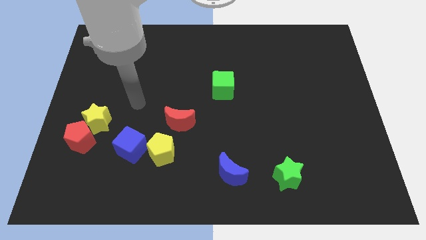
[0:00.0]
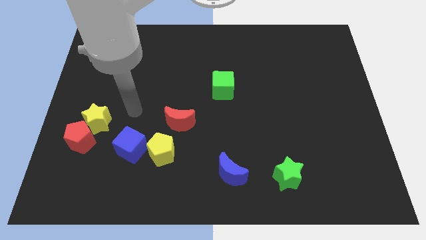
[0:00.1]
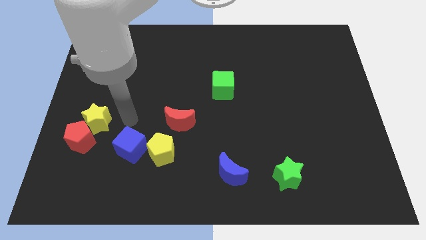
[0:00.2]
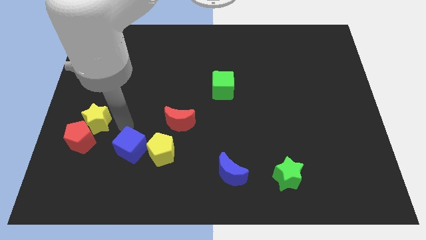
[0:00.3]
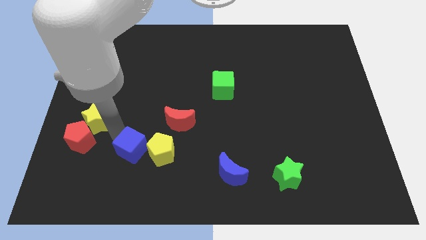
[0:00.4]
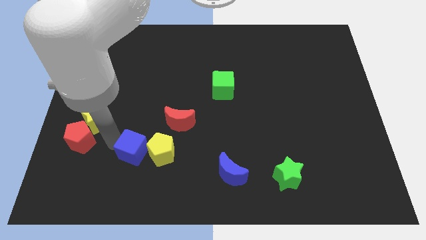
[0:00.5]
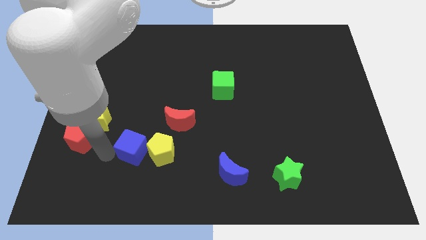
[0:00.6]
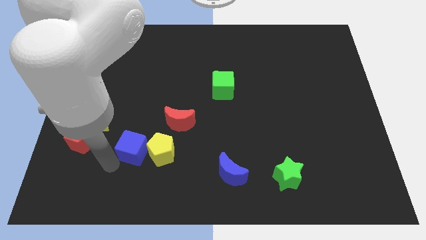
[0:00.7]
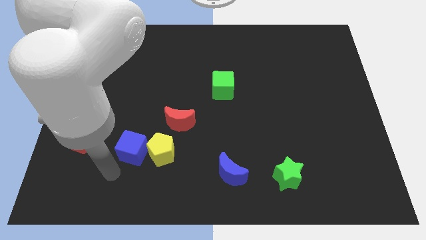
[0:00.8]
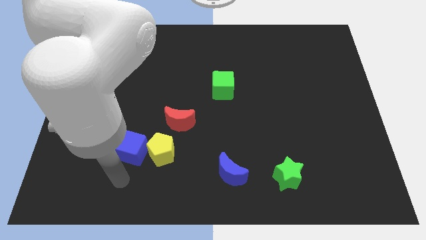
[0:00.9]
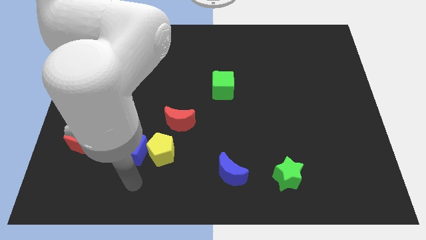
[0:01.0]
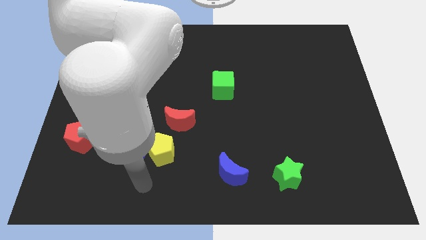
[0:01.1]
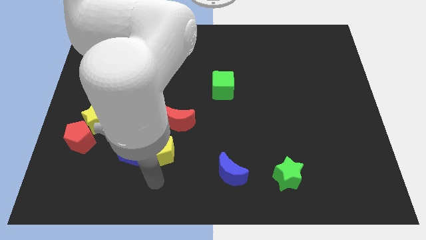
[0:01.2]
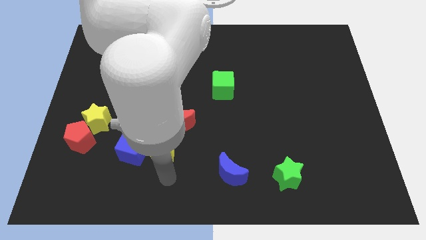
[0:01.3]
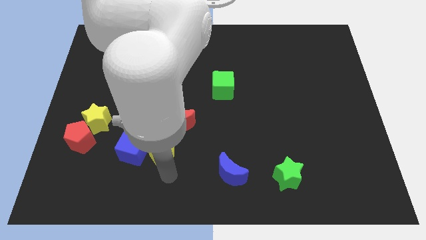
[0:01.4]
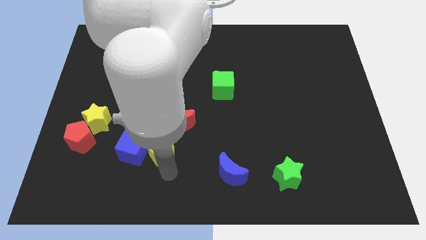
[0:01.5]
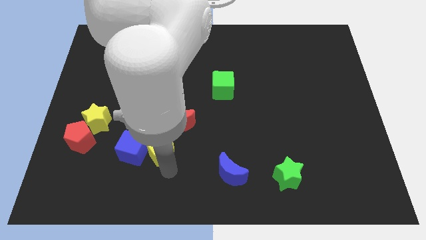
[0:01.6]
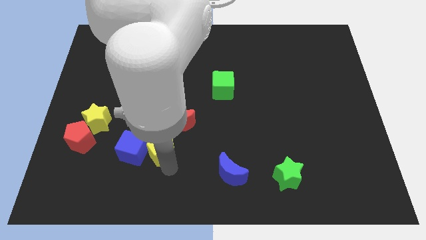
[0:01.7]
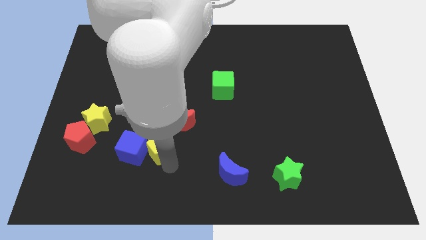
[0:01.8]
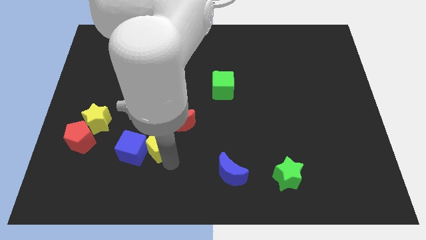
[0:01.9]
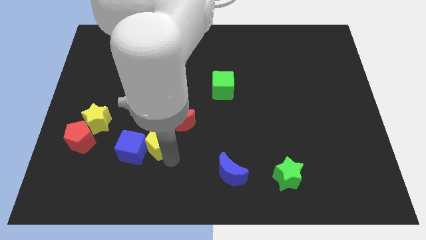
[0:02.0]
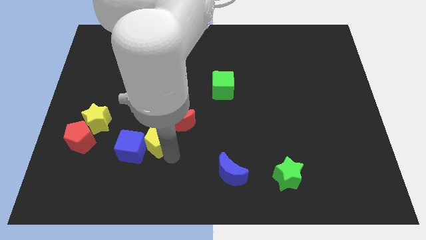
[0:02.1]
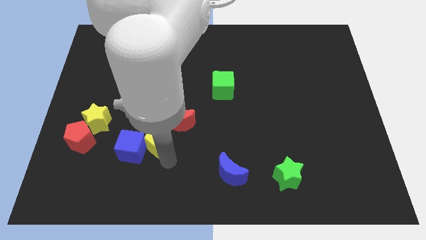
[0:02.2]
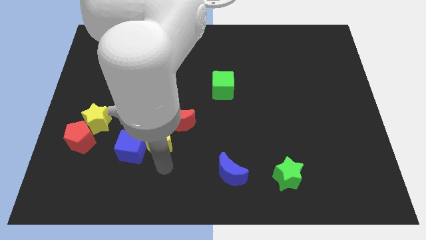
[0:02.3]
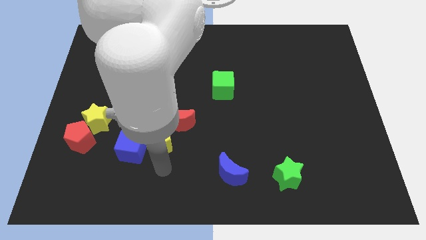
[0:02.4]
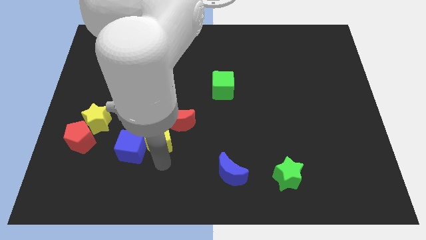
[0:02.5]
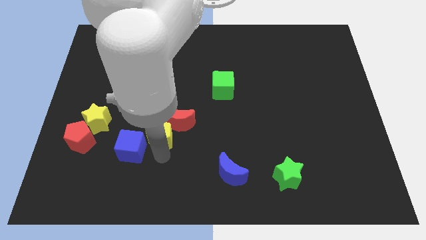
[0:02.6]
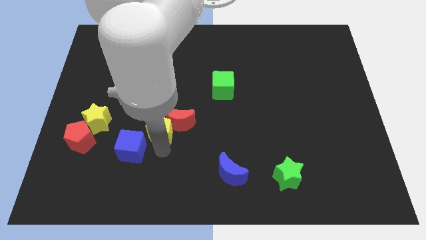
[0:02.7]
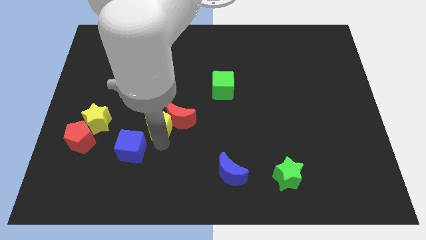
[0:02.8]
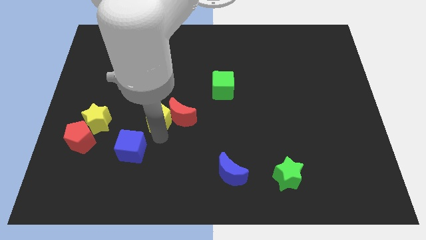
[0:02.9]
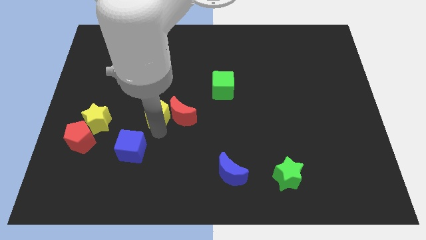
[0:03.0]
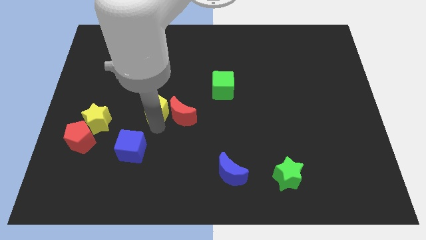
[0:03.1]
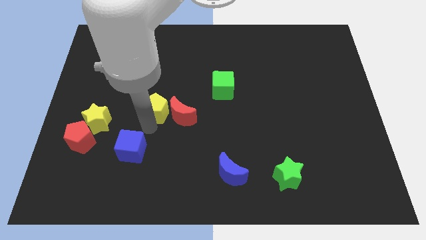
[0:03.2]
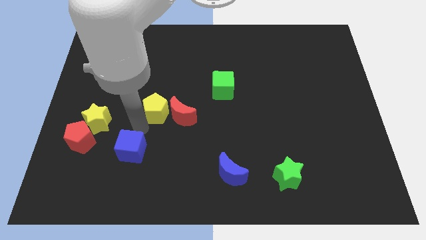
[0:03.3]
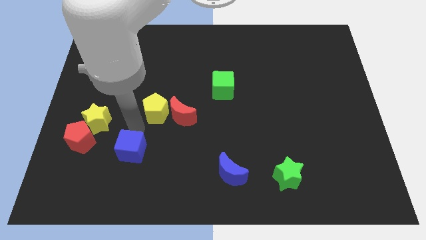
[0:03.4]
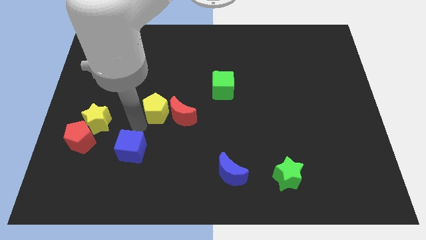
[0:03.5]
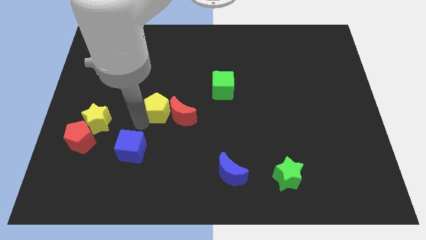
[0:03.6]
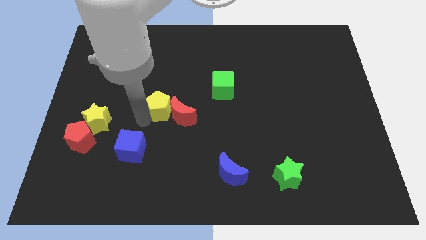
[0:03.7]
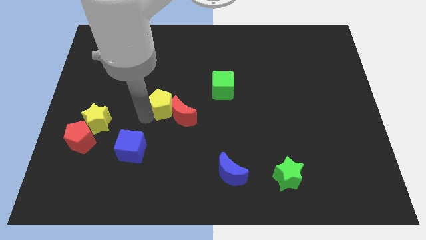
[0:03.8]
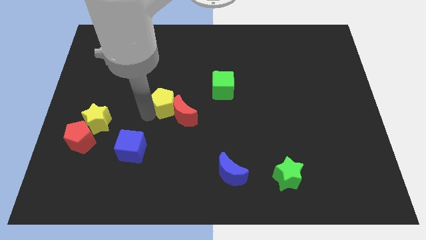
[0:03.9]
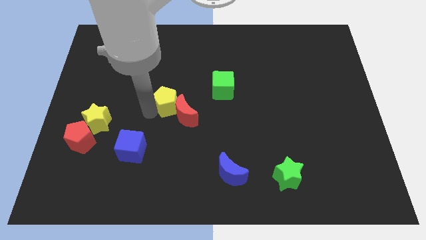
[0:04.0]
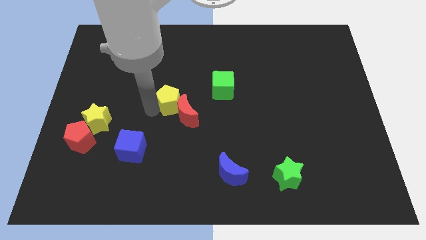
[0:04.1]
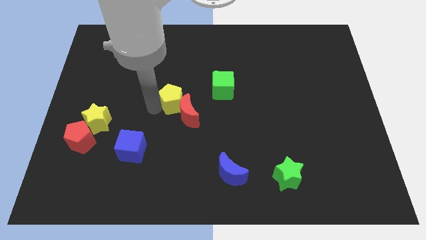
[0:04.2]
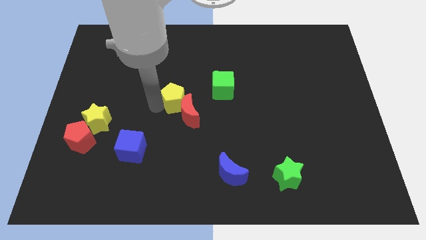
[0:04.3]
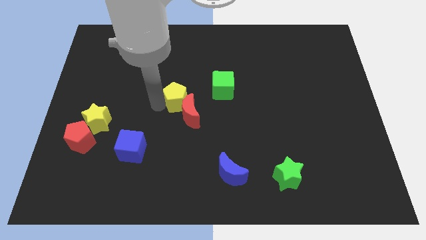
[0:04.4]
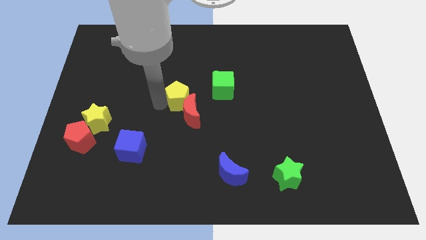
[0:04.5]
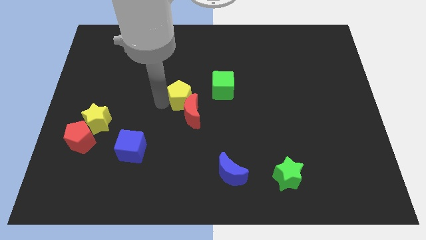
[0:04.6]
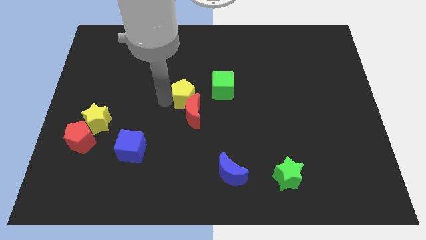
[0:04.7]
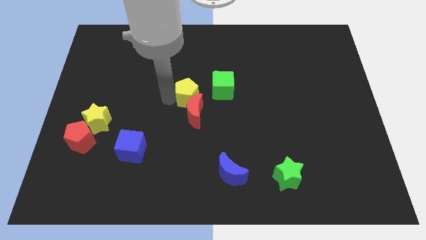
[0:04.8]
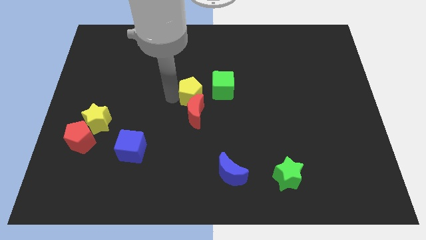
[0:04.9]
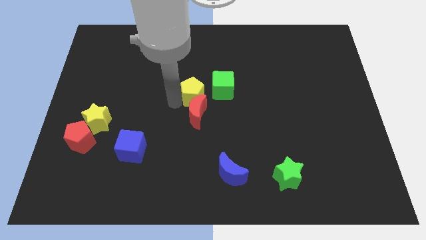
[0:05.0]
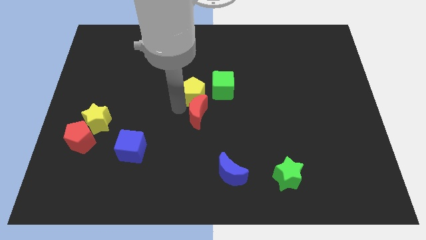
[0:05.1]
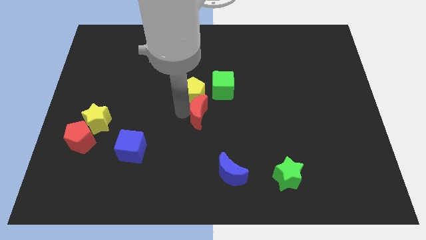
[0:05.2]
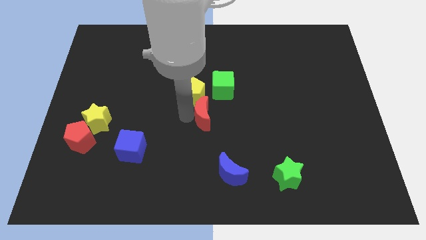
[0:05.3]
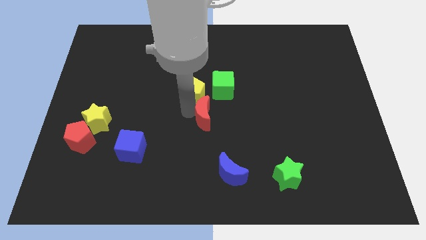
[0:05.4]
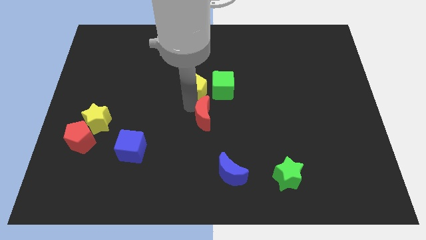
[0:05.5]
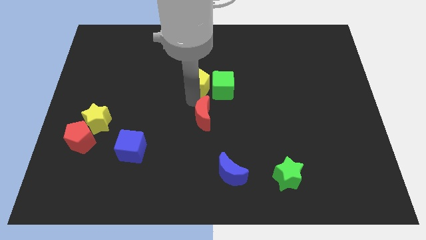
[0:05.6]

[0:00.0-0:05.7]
move the yellow pentagon diagonally up and to the left of the green cube

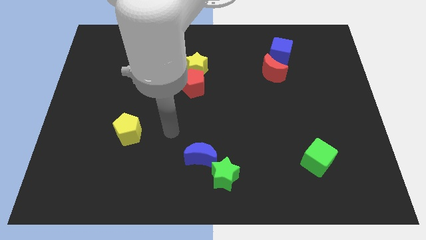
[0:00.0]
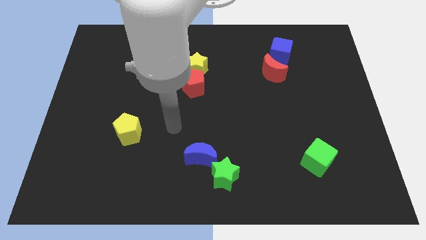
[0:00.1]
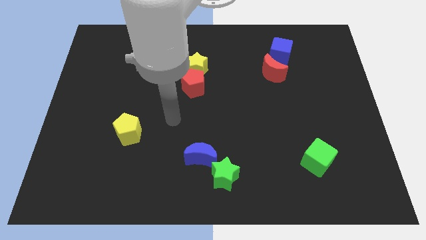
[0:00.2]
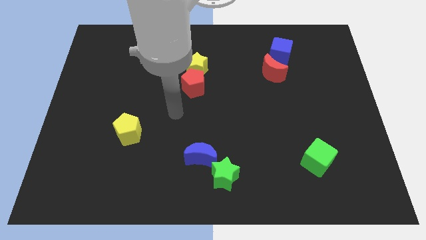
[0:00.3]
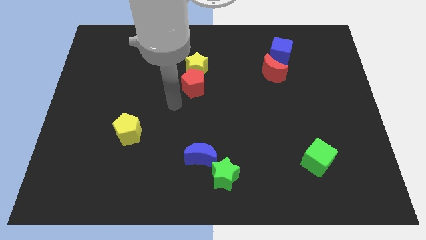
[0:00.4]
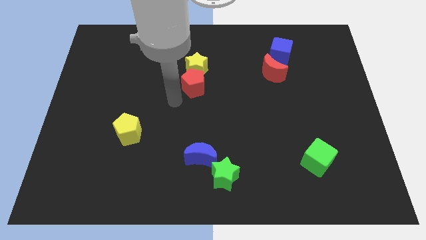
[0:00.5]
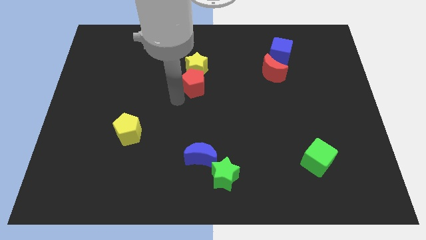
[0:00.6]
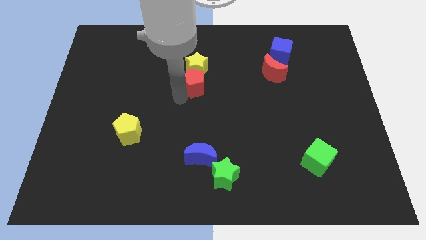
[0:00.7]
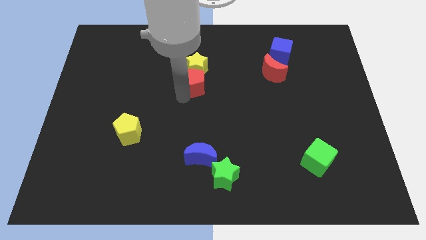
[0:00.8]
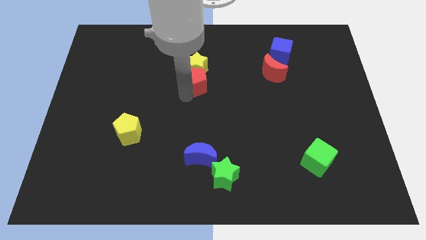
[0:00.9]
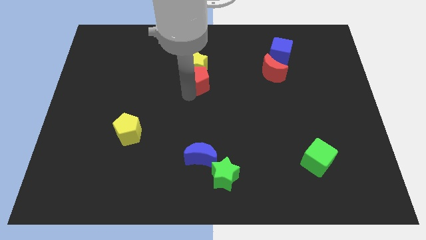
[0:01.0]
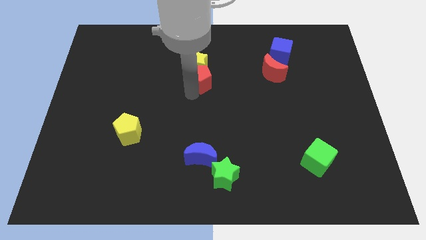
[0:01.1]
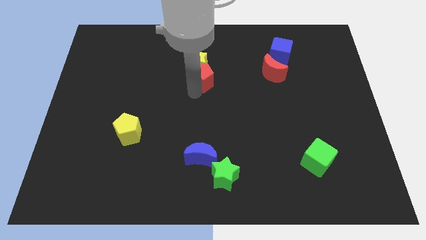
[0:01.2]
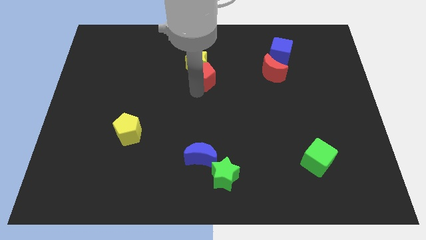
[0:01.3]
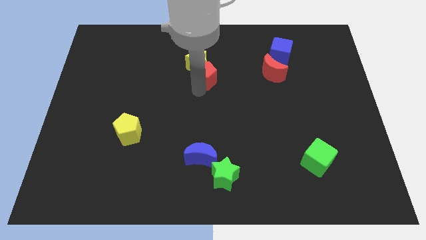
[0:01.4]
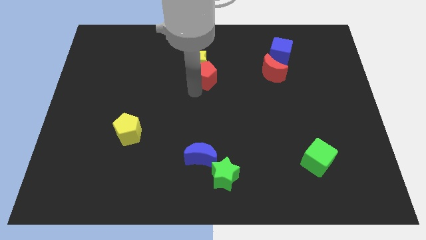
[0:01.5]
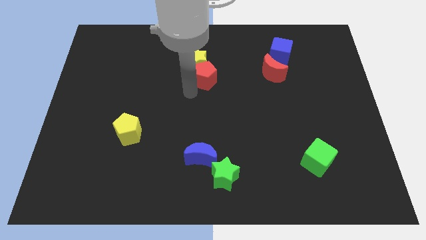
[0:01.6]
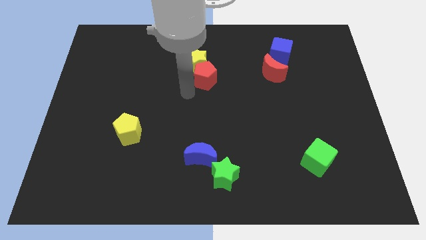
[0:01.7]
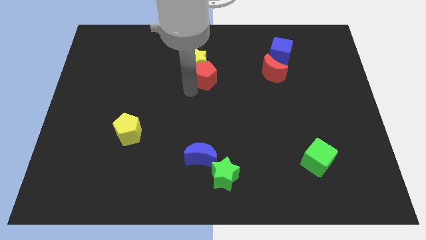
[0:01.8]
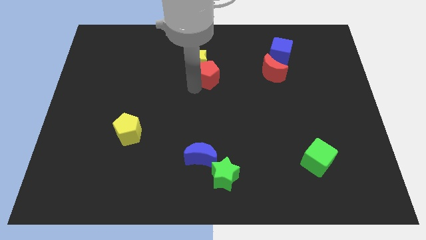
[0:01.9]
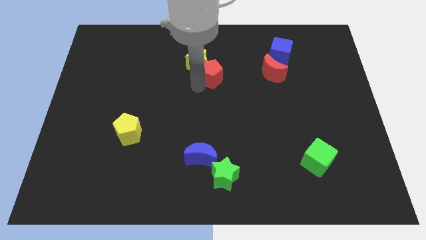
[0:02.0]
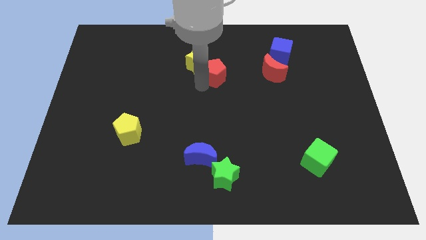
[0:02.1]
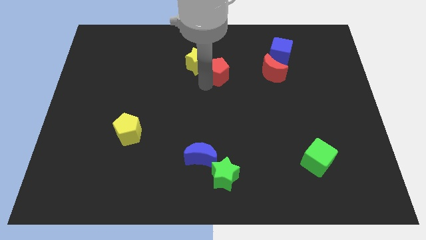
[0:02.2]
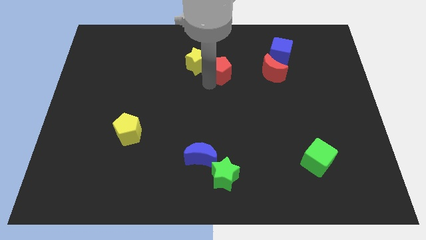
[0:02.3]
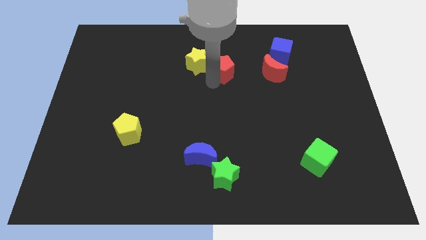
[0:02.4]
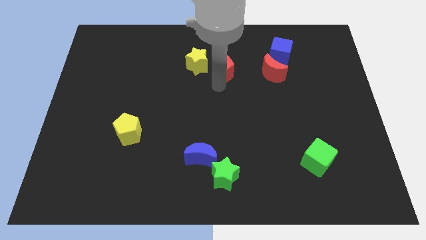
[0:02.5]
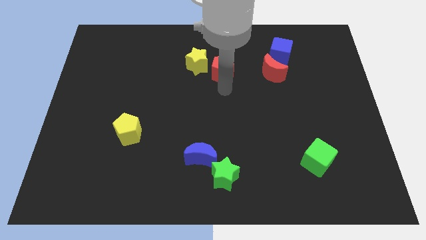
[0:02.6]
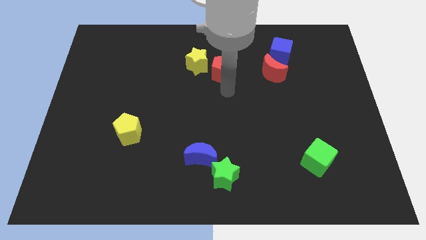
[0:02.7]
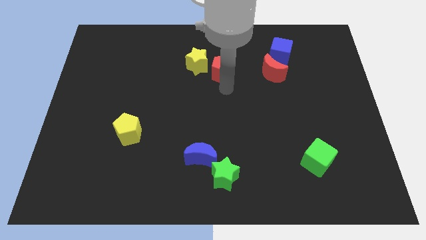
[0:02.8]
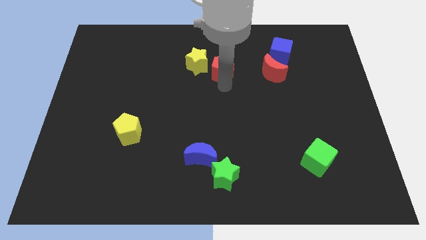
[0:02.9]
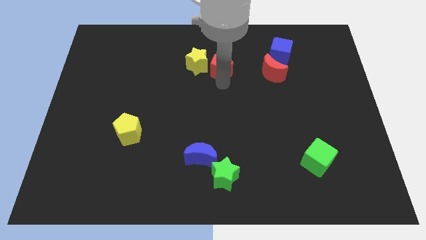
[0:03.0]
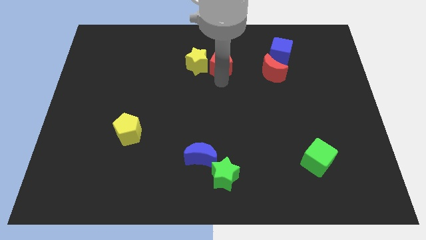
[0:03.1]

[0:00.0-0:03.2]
put the red pentagon to the top right side of the yellow star
